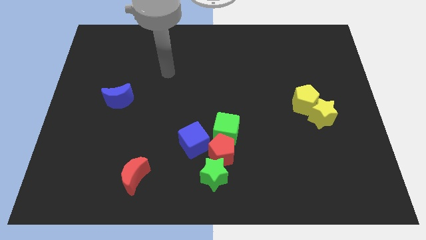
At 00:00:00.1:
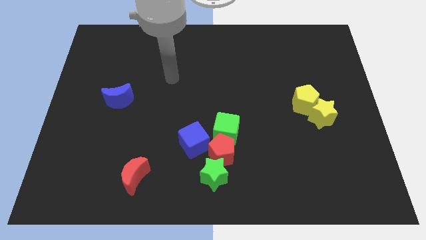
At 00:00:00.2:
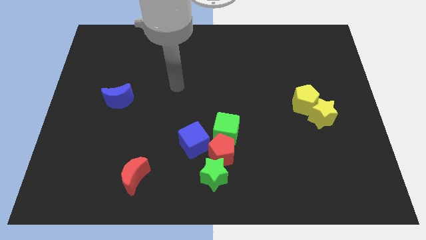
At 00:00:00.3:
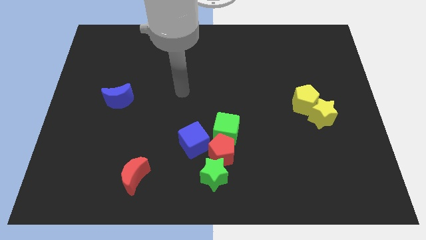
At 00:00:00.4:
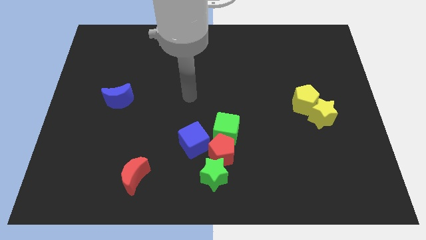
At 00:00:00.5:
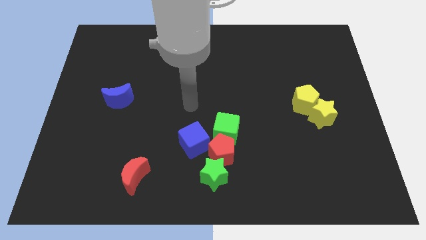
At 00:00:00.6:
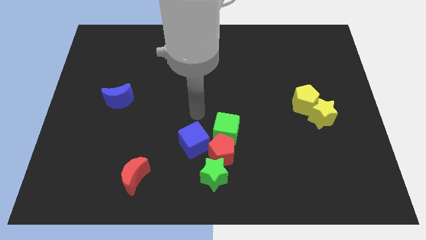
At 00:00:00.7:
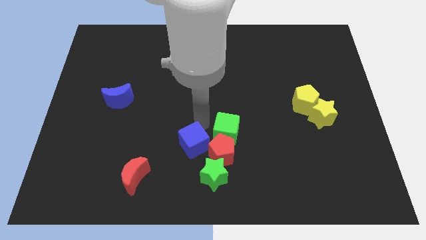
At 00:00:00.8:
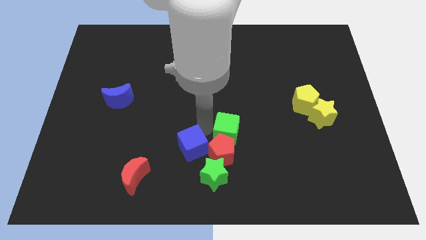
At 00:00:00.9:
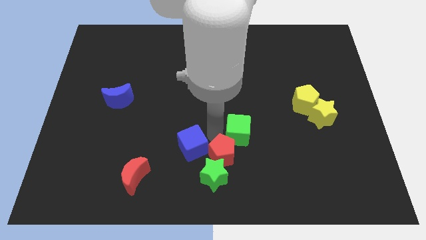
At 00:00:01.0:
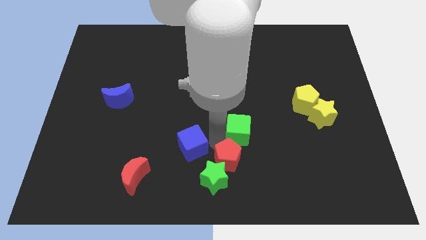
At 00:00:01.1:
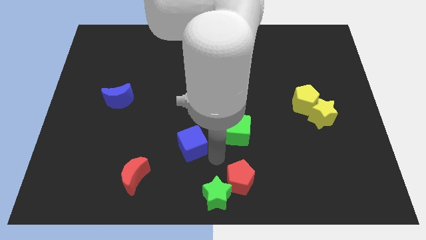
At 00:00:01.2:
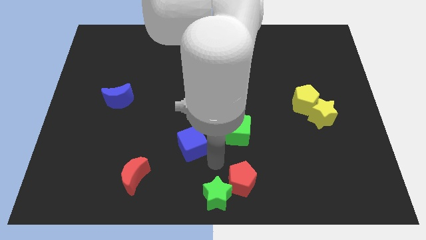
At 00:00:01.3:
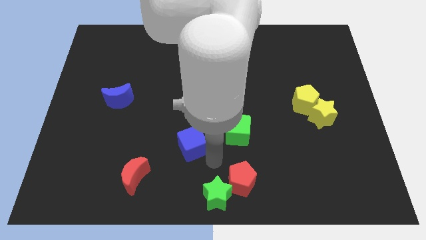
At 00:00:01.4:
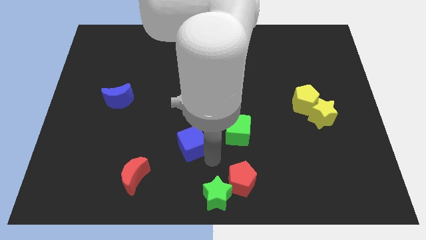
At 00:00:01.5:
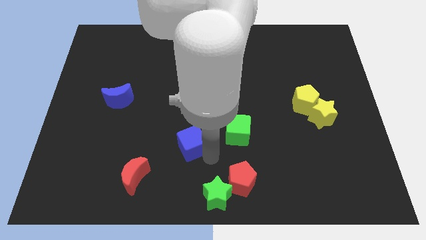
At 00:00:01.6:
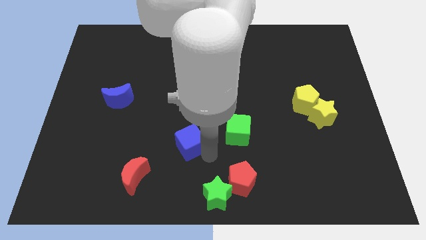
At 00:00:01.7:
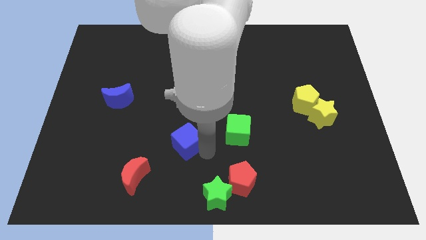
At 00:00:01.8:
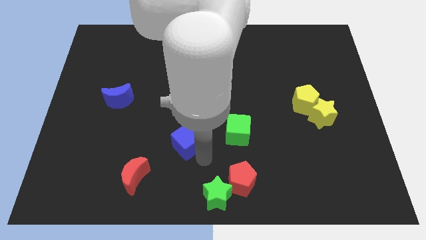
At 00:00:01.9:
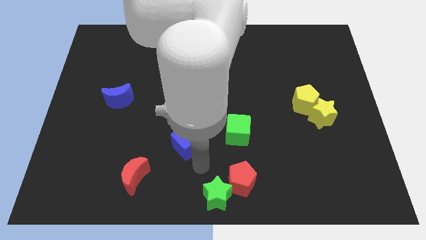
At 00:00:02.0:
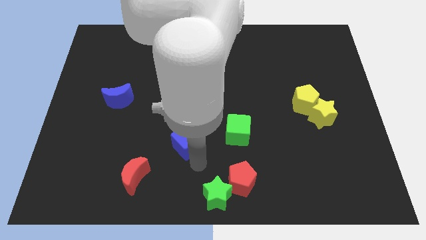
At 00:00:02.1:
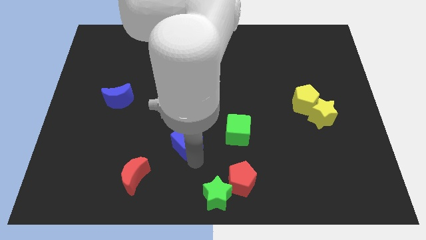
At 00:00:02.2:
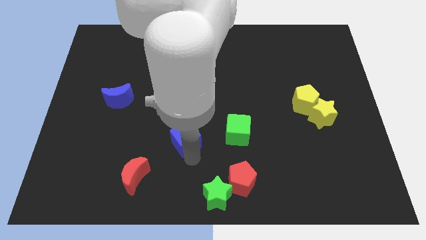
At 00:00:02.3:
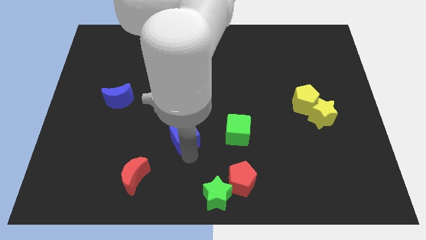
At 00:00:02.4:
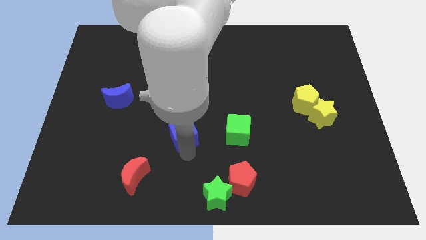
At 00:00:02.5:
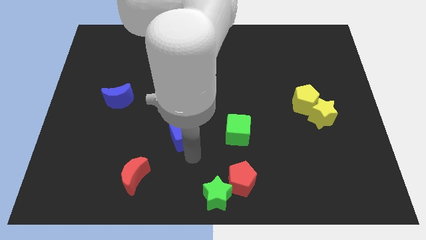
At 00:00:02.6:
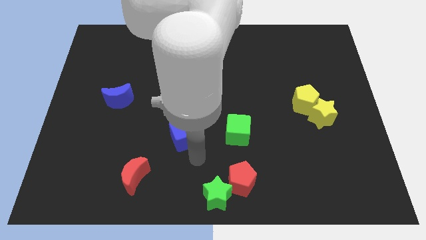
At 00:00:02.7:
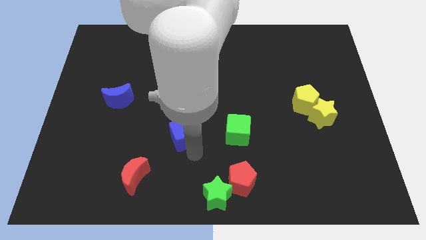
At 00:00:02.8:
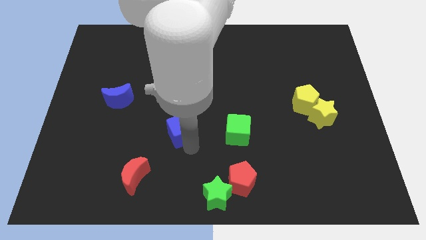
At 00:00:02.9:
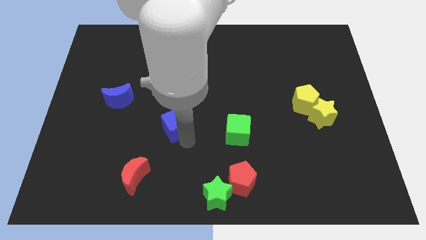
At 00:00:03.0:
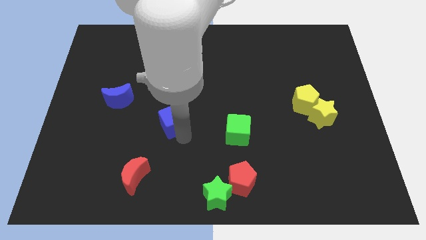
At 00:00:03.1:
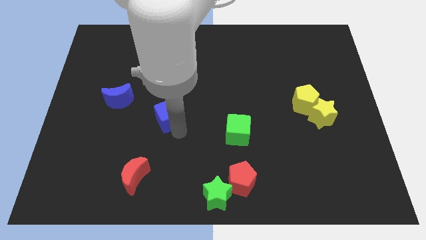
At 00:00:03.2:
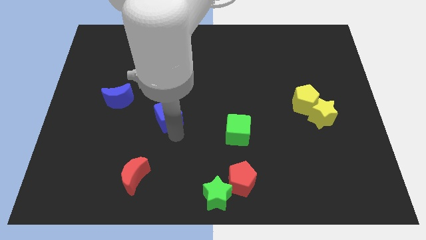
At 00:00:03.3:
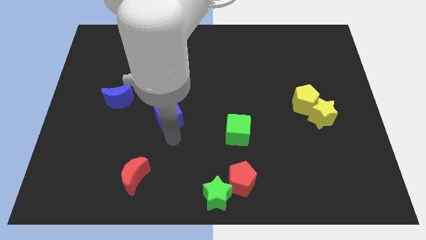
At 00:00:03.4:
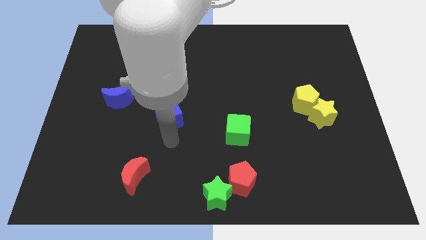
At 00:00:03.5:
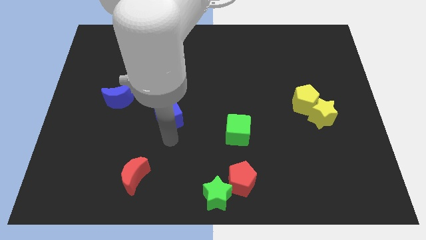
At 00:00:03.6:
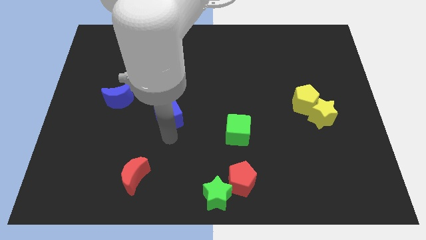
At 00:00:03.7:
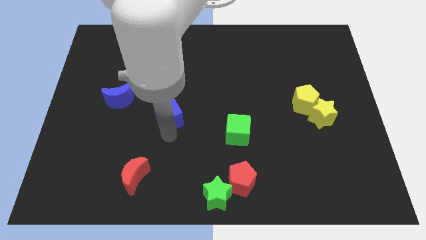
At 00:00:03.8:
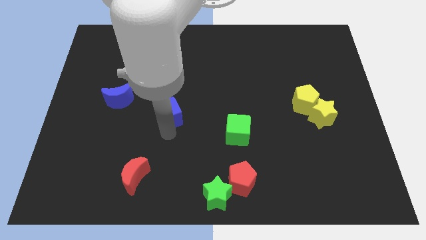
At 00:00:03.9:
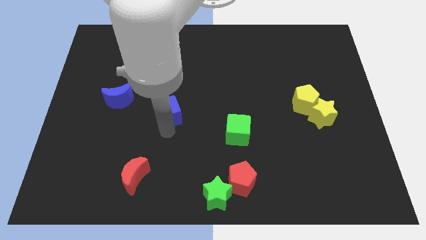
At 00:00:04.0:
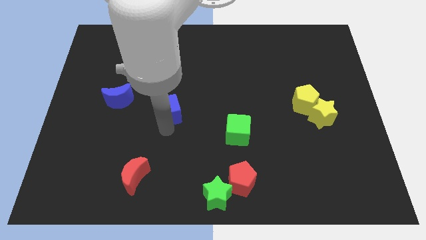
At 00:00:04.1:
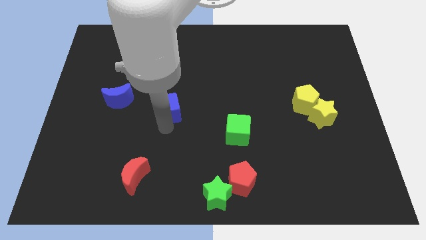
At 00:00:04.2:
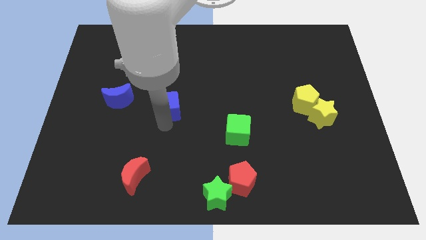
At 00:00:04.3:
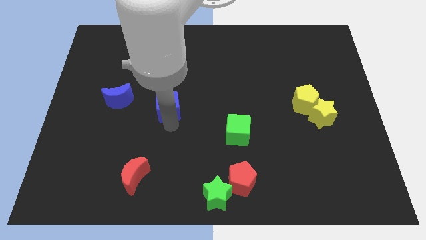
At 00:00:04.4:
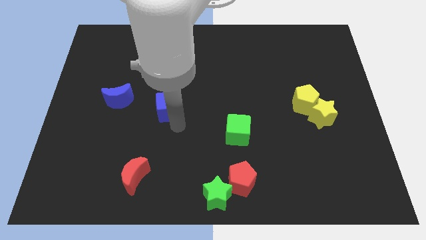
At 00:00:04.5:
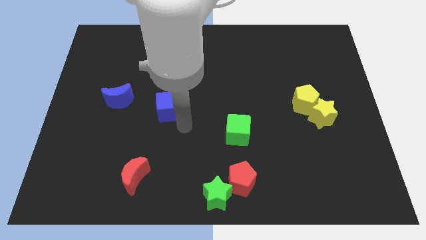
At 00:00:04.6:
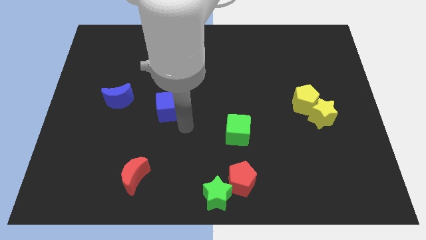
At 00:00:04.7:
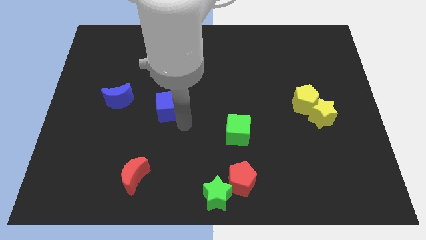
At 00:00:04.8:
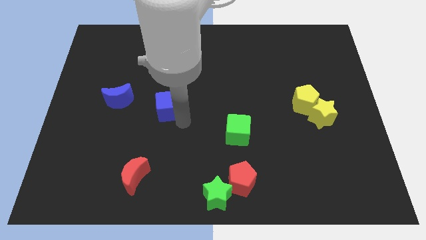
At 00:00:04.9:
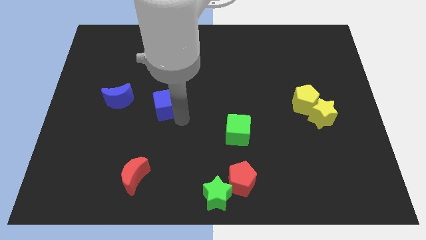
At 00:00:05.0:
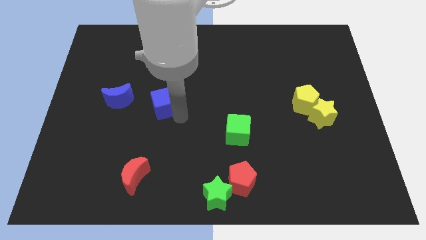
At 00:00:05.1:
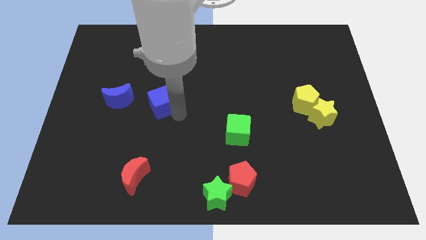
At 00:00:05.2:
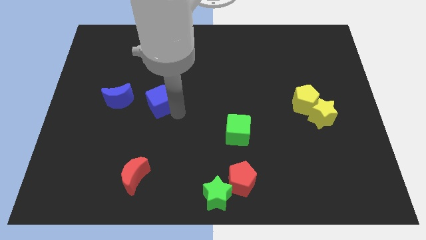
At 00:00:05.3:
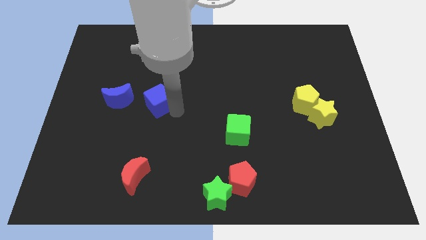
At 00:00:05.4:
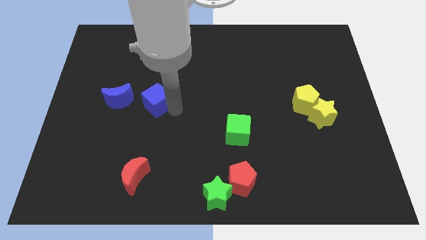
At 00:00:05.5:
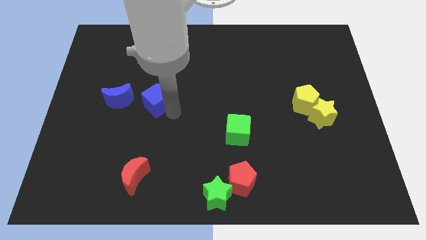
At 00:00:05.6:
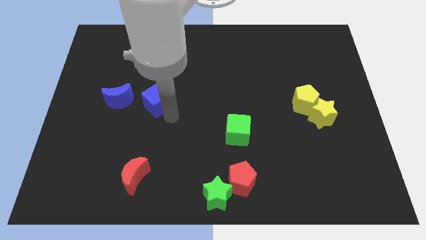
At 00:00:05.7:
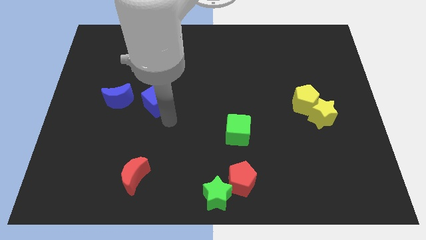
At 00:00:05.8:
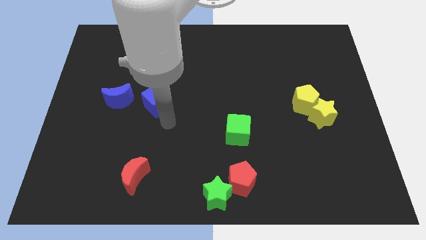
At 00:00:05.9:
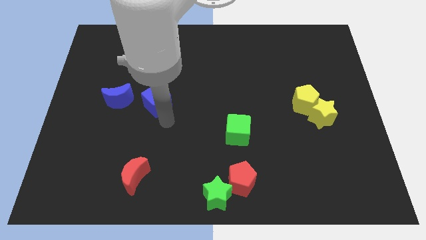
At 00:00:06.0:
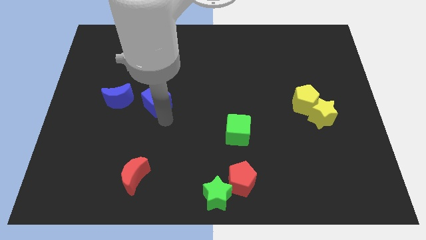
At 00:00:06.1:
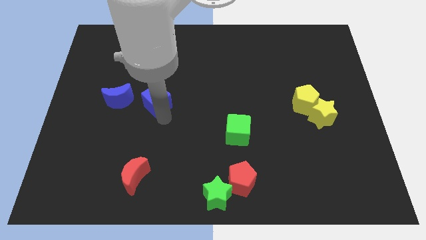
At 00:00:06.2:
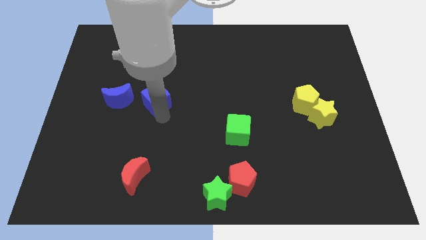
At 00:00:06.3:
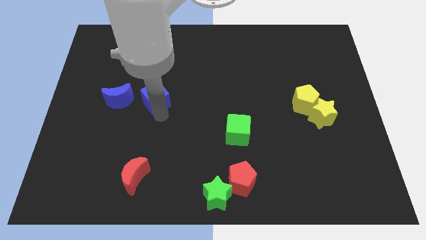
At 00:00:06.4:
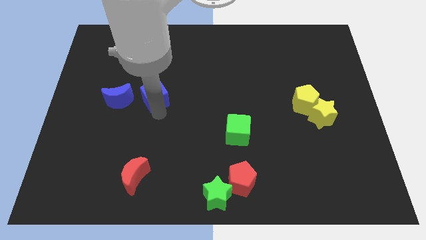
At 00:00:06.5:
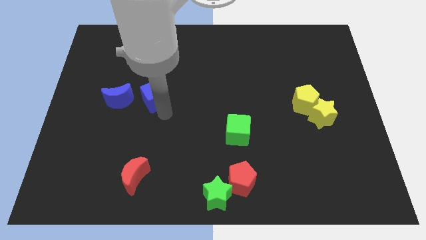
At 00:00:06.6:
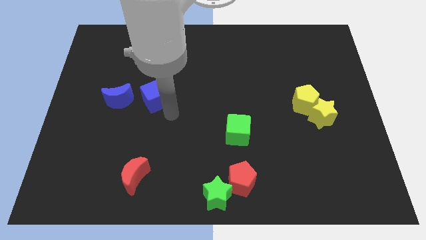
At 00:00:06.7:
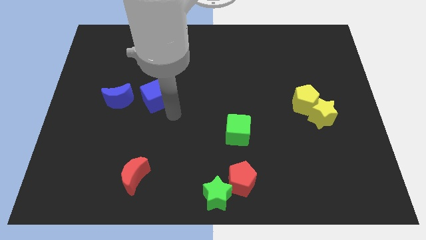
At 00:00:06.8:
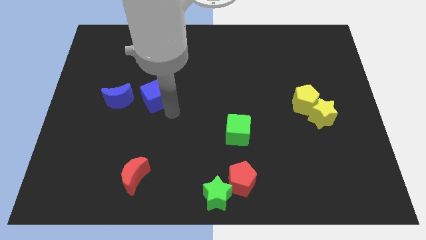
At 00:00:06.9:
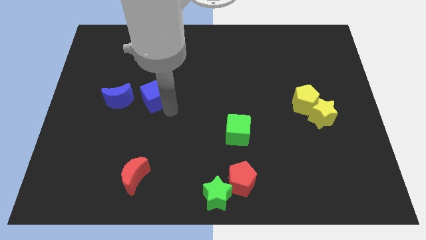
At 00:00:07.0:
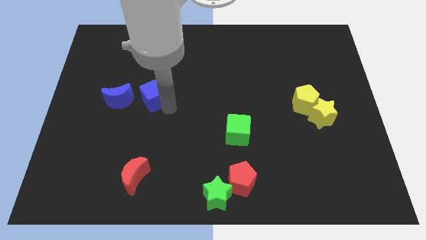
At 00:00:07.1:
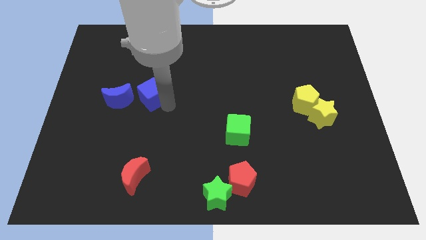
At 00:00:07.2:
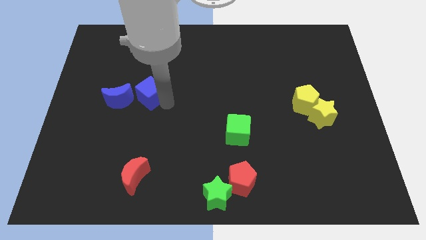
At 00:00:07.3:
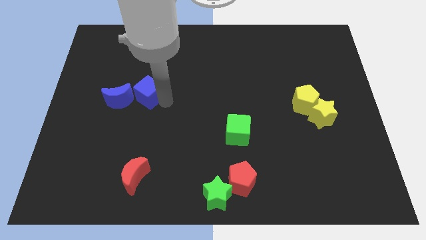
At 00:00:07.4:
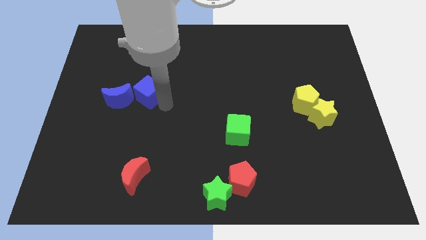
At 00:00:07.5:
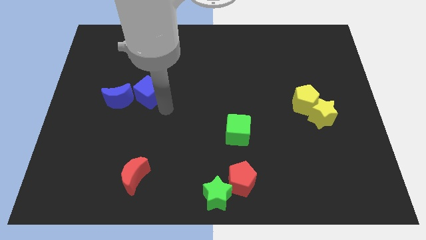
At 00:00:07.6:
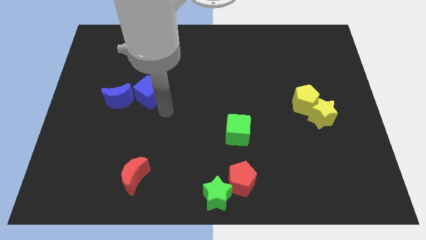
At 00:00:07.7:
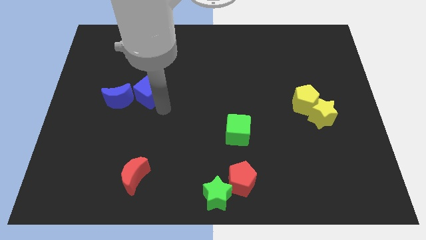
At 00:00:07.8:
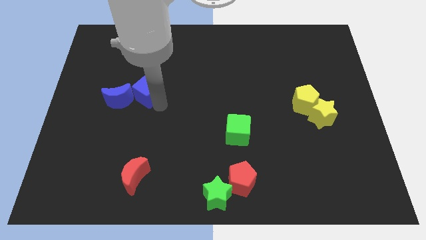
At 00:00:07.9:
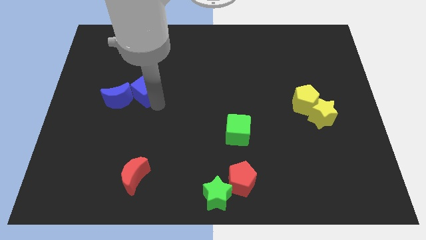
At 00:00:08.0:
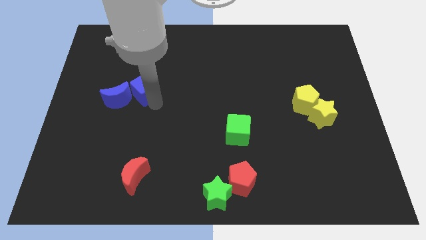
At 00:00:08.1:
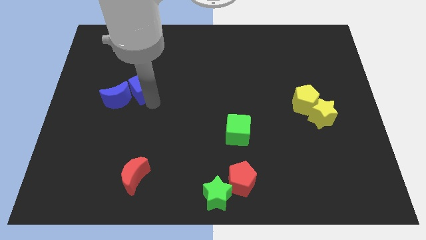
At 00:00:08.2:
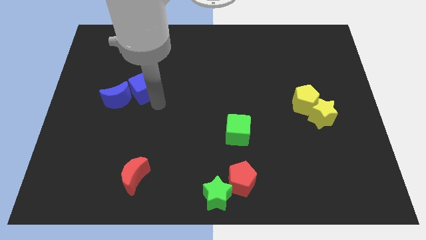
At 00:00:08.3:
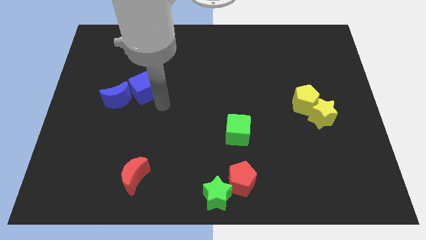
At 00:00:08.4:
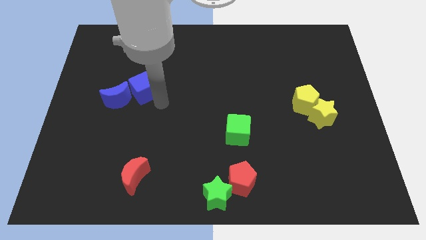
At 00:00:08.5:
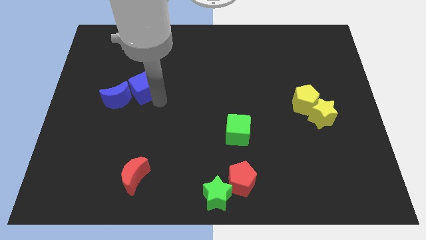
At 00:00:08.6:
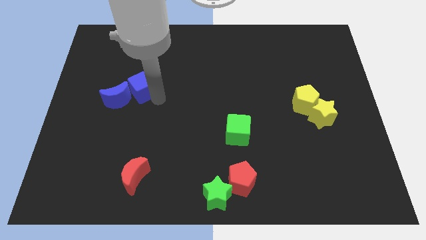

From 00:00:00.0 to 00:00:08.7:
push the blue cube up and then to the left
